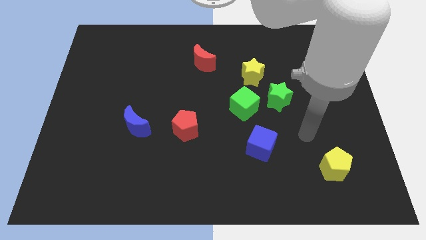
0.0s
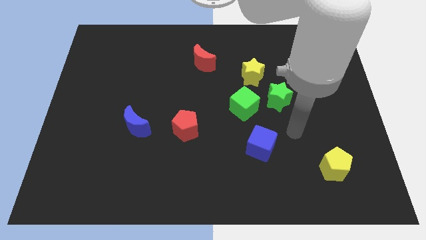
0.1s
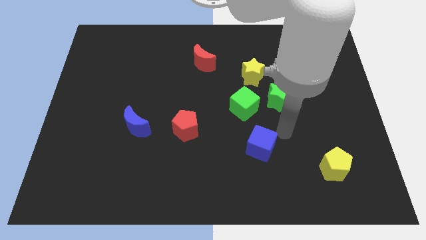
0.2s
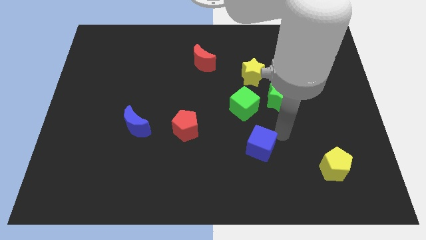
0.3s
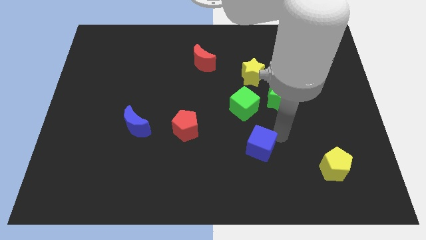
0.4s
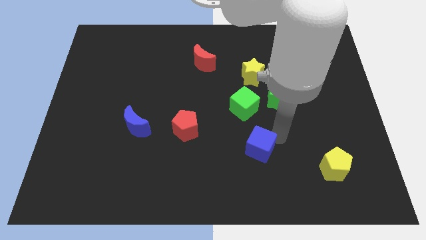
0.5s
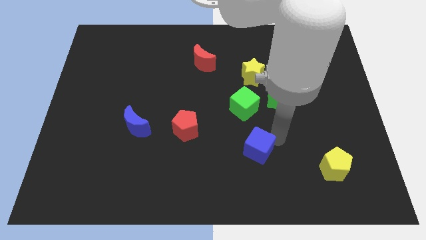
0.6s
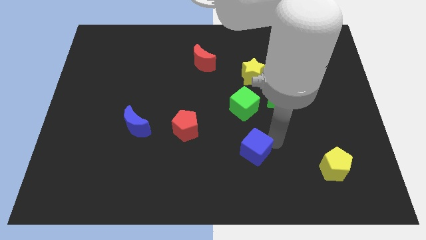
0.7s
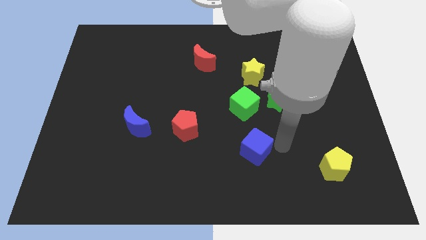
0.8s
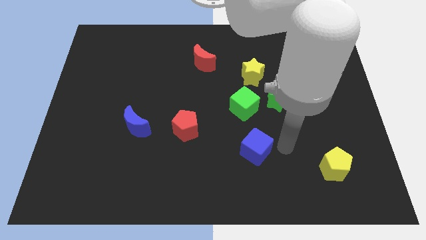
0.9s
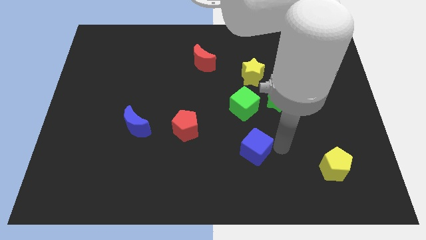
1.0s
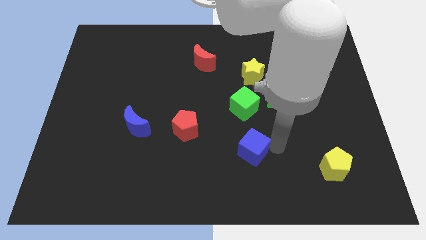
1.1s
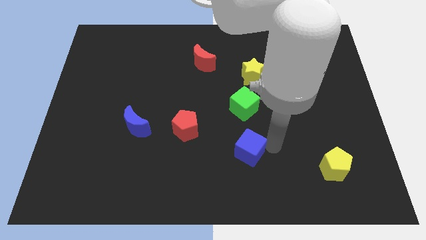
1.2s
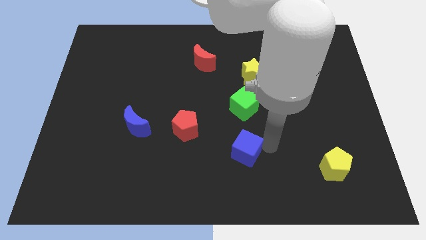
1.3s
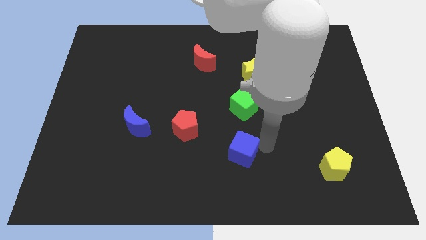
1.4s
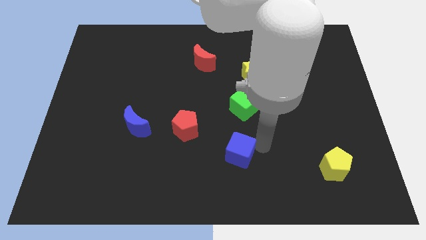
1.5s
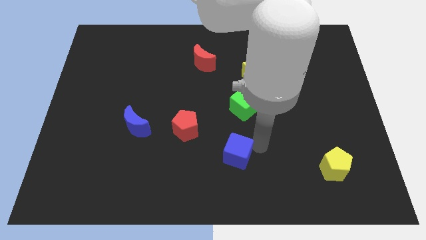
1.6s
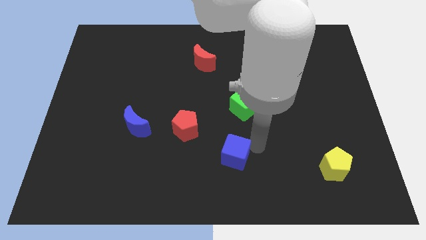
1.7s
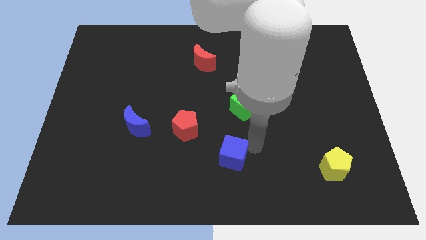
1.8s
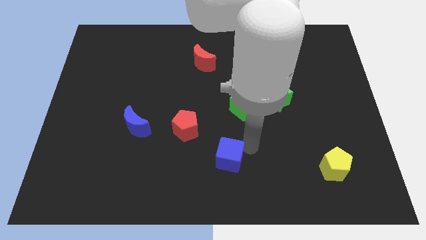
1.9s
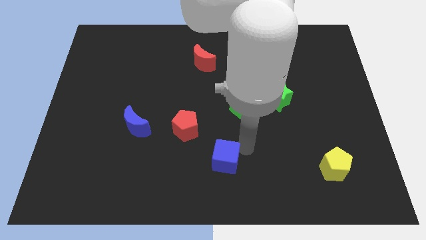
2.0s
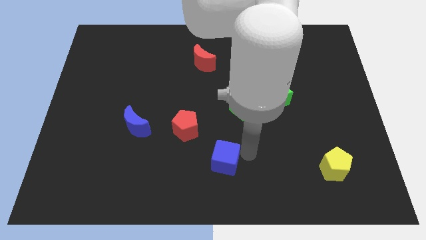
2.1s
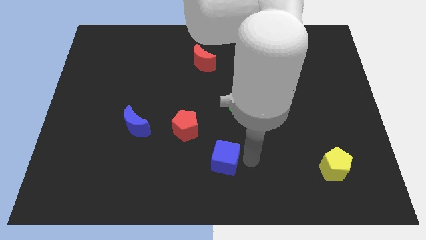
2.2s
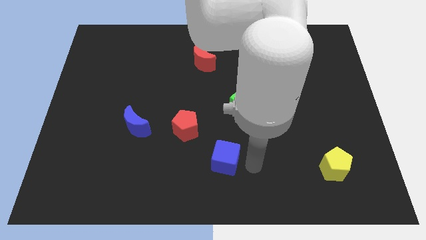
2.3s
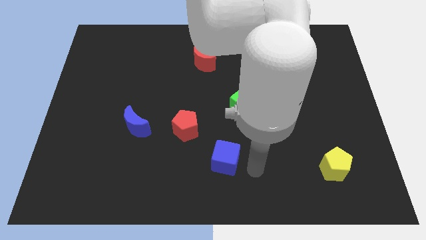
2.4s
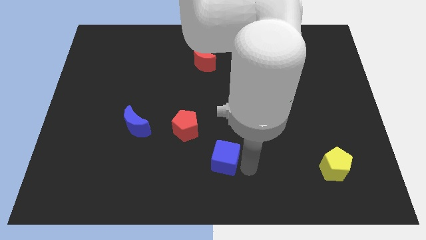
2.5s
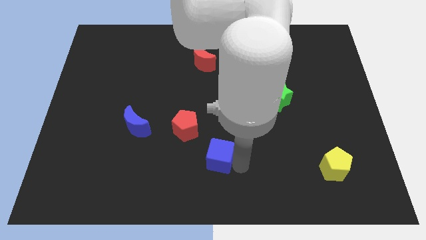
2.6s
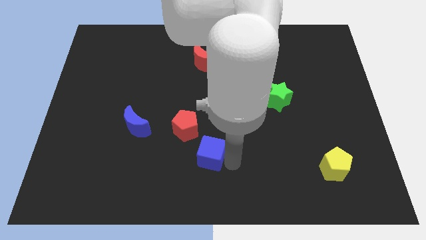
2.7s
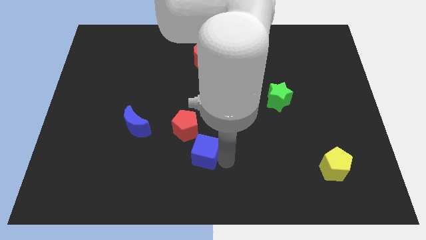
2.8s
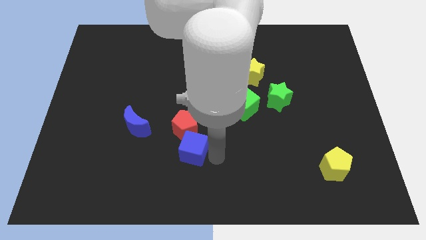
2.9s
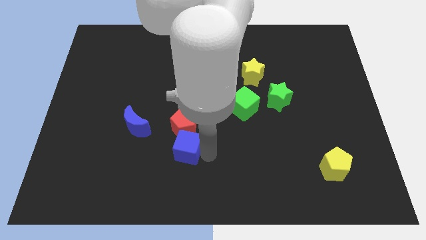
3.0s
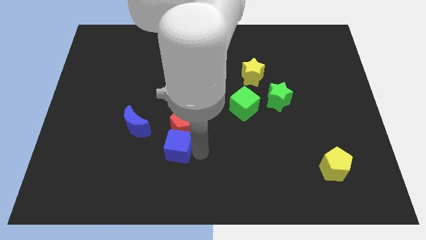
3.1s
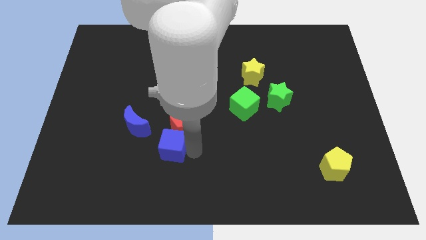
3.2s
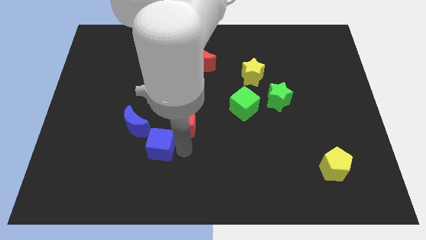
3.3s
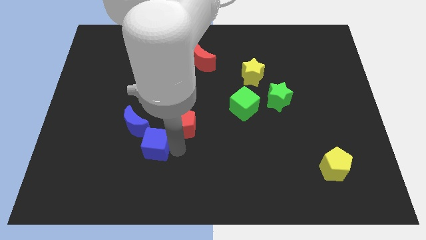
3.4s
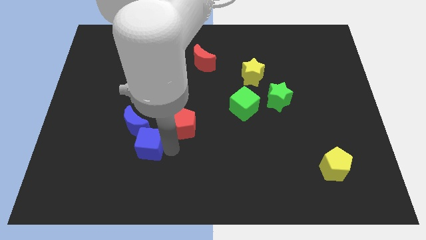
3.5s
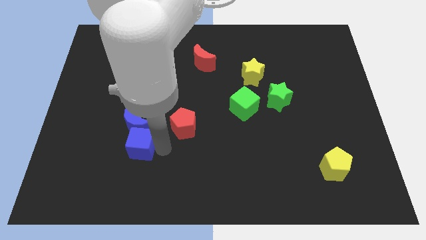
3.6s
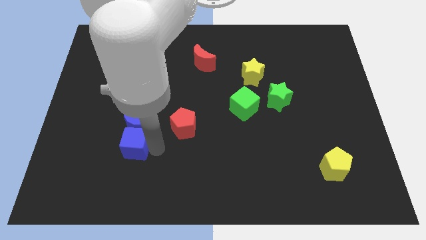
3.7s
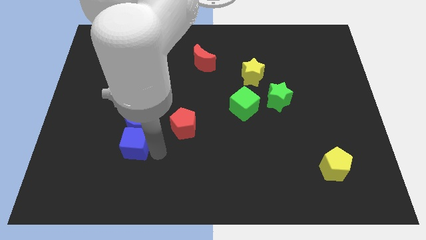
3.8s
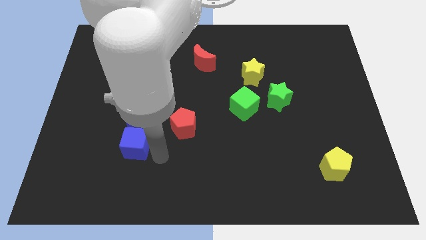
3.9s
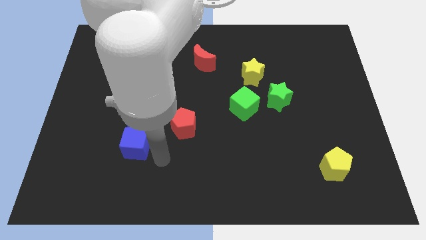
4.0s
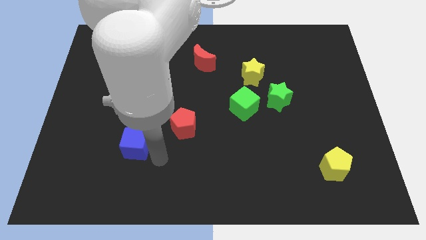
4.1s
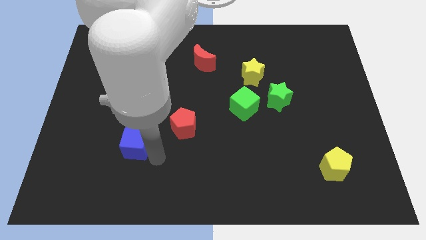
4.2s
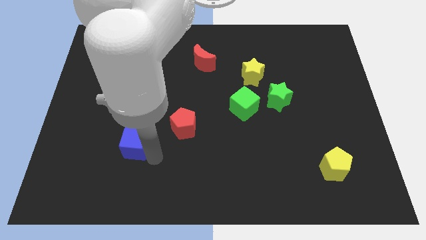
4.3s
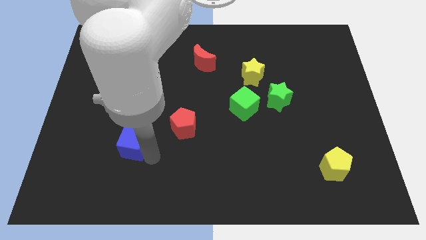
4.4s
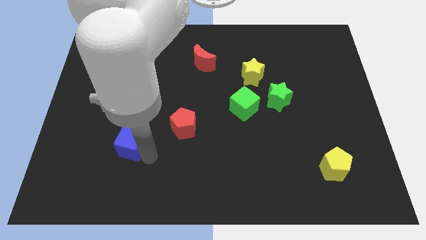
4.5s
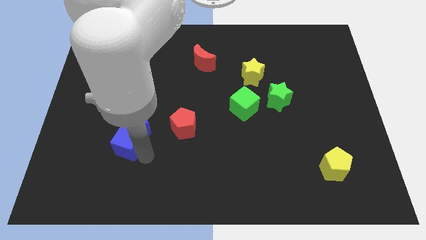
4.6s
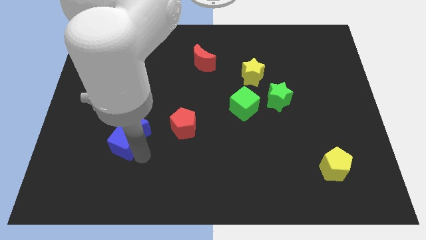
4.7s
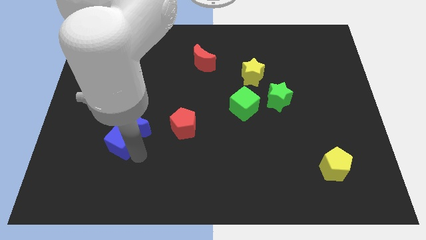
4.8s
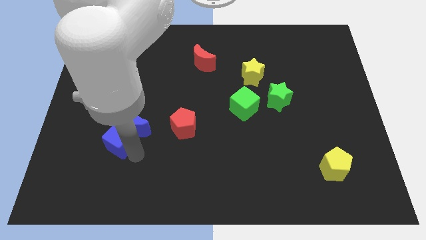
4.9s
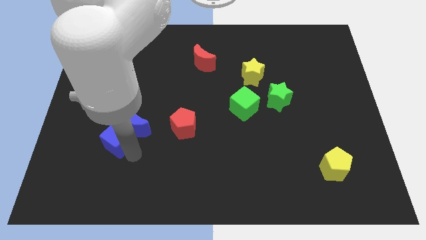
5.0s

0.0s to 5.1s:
slide the blue cube just left of the blue moon

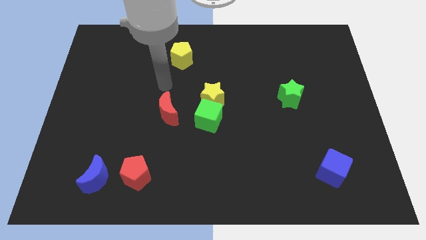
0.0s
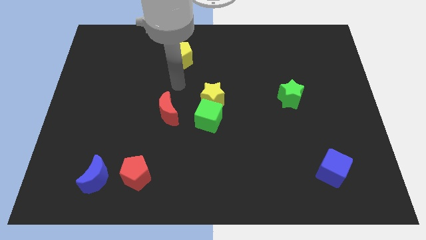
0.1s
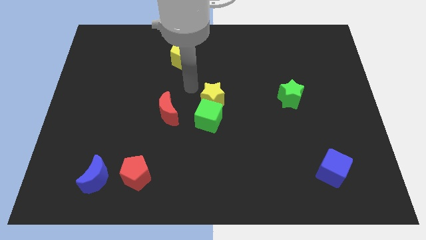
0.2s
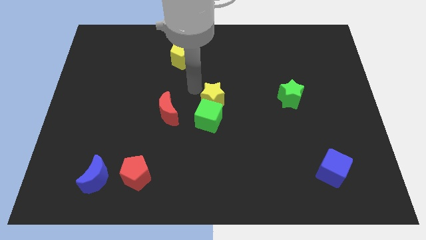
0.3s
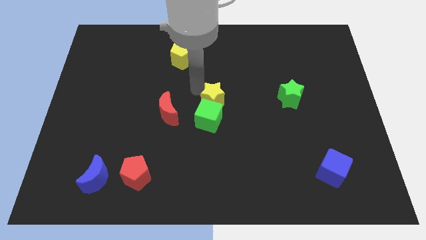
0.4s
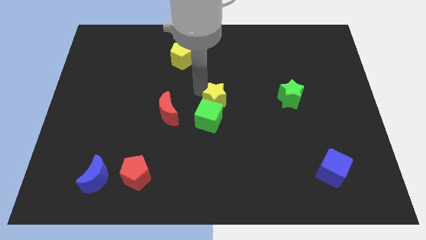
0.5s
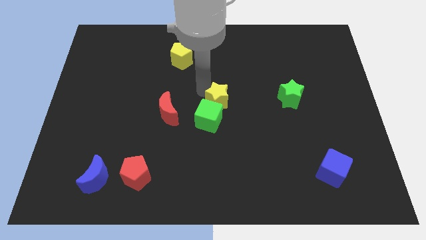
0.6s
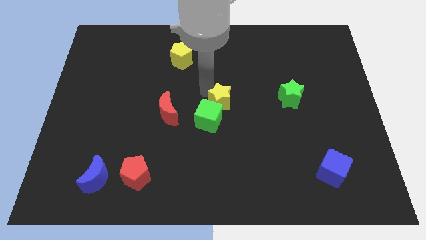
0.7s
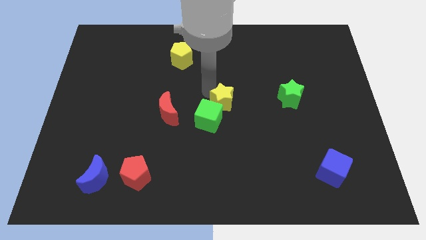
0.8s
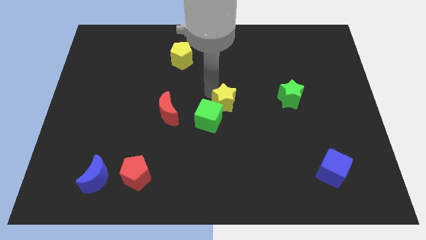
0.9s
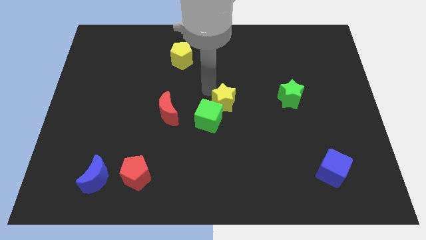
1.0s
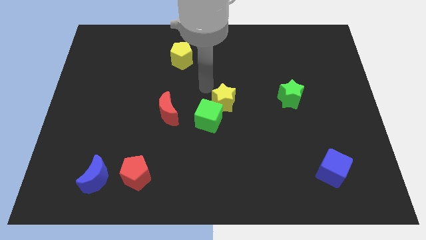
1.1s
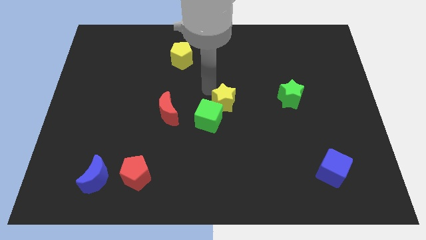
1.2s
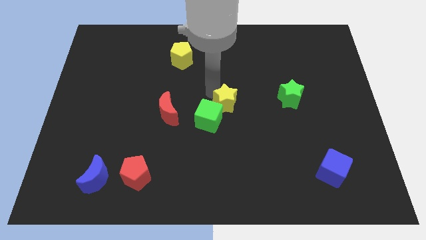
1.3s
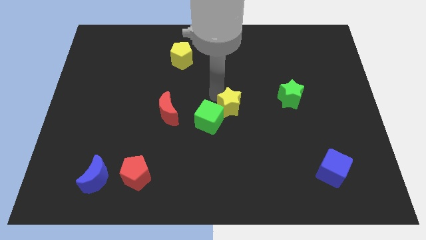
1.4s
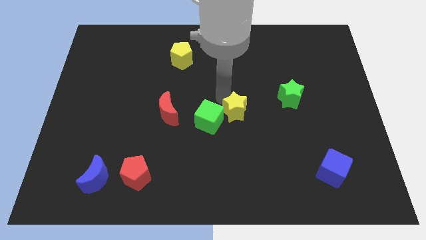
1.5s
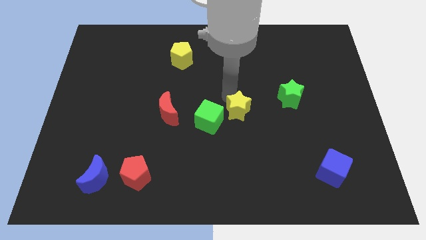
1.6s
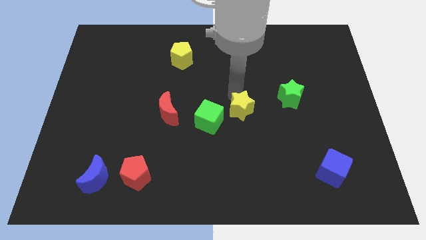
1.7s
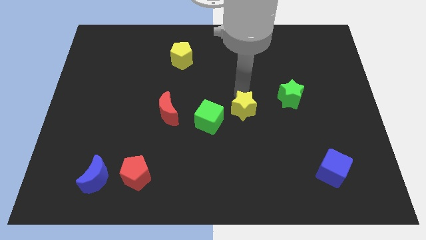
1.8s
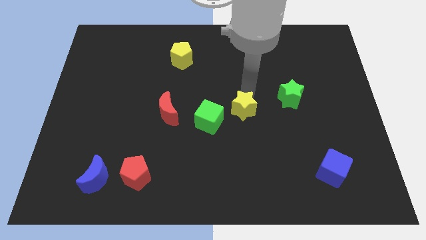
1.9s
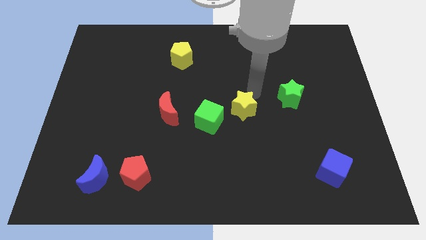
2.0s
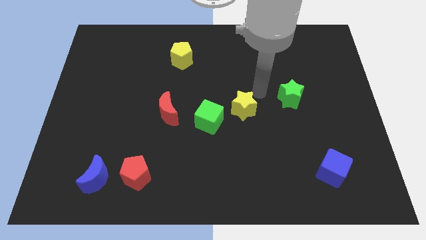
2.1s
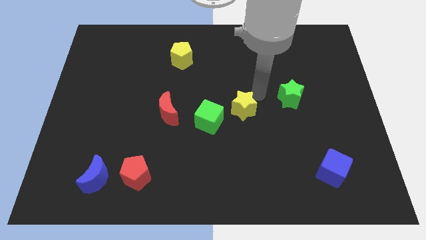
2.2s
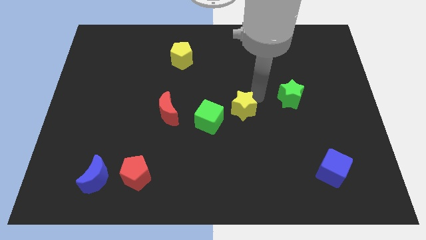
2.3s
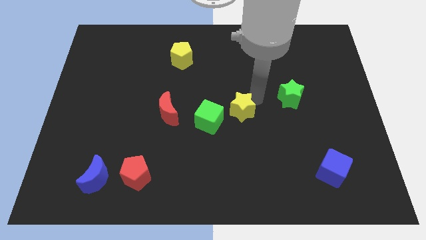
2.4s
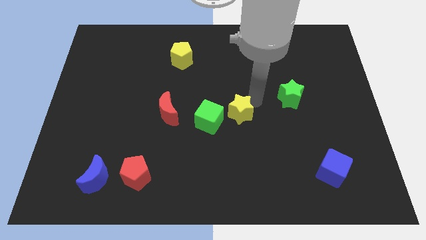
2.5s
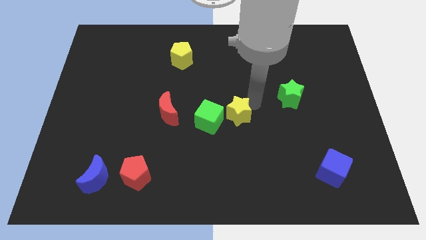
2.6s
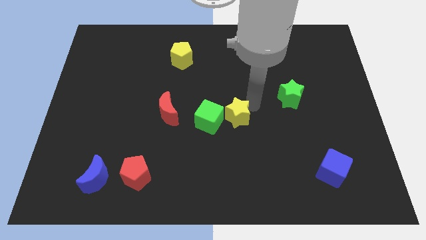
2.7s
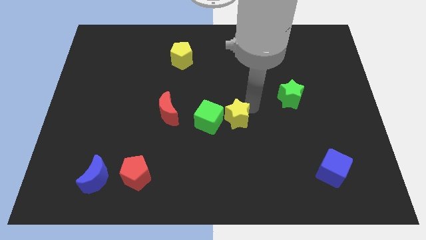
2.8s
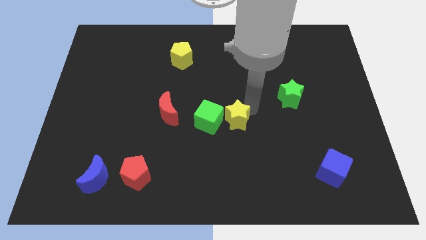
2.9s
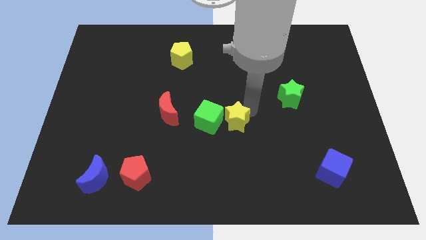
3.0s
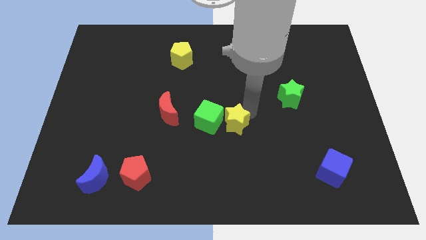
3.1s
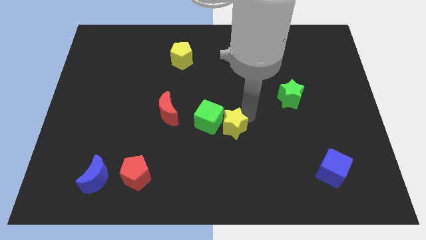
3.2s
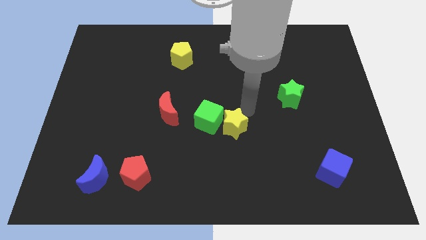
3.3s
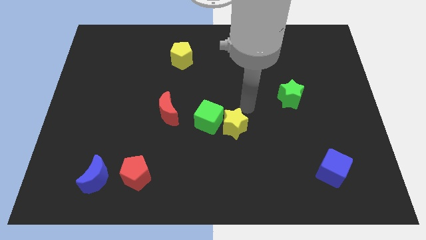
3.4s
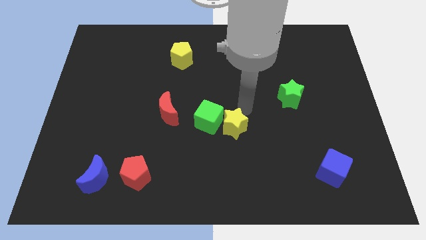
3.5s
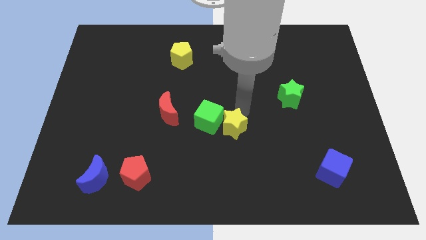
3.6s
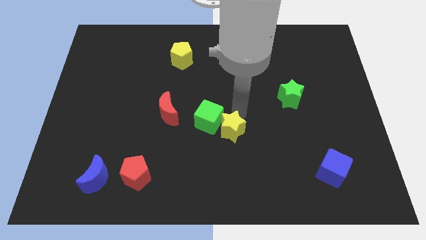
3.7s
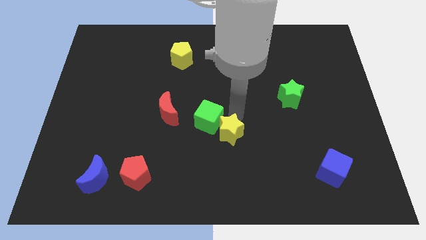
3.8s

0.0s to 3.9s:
move the yellow star to the bottom of the green cube
